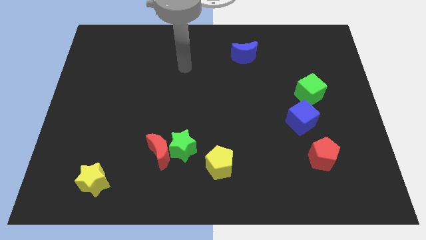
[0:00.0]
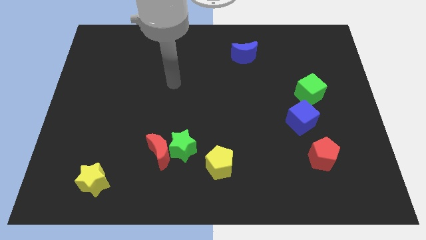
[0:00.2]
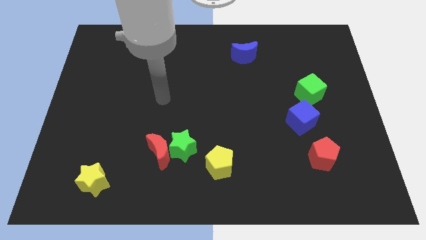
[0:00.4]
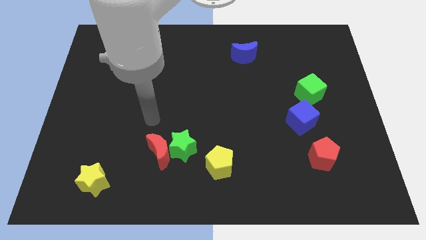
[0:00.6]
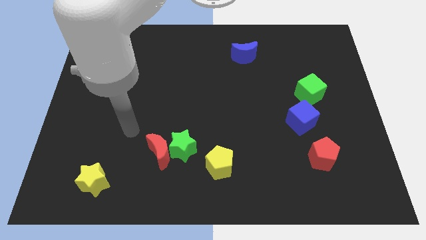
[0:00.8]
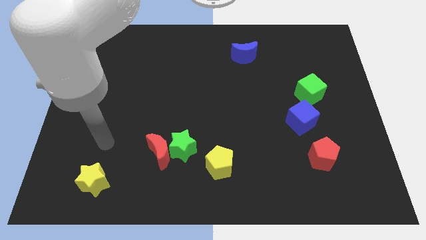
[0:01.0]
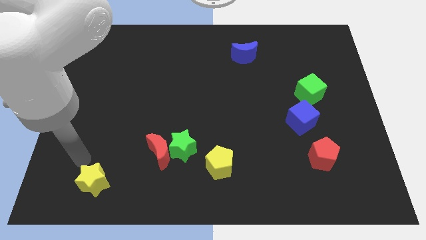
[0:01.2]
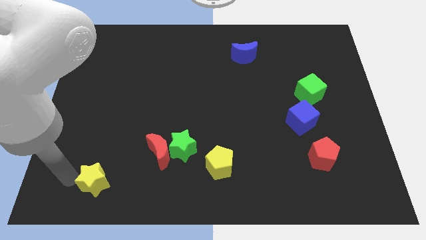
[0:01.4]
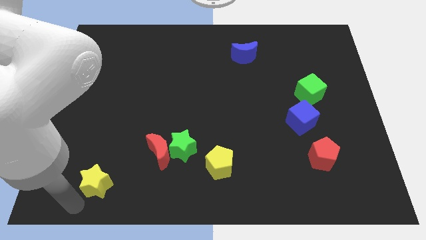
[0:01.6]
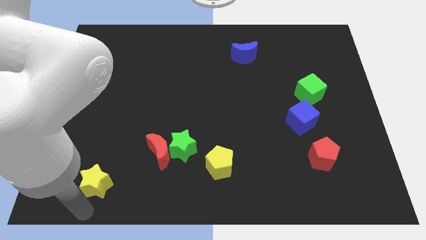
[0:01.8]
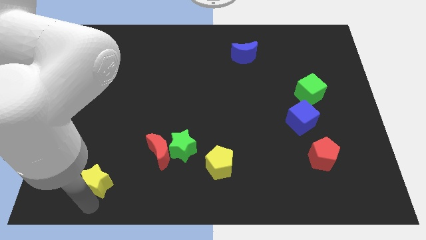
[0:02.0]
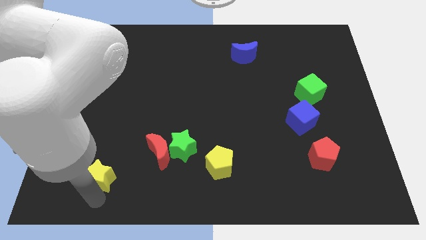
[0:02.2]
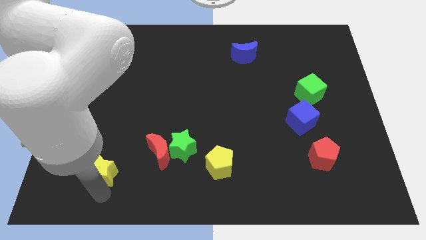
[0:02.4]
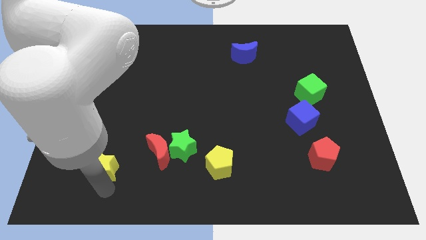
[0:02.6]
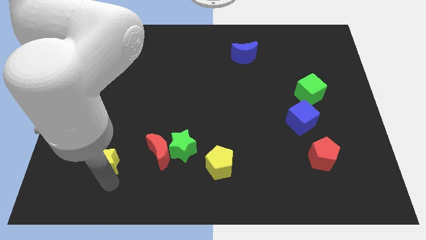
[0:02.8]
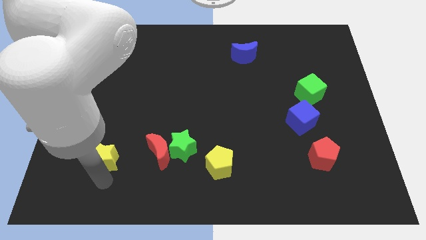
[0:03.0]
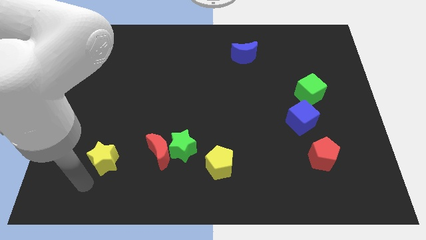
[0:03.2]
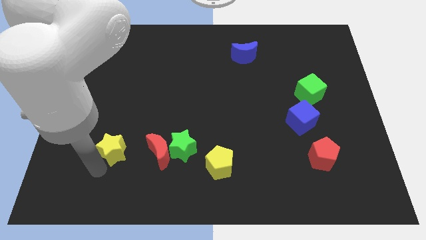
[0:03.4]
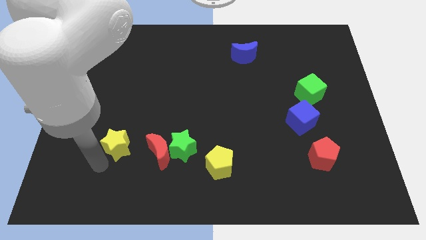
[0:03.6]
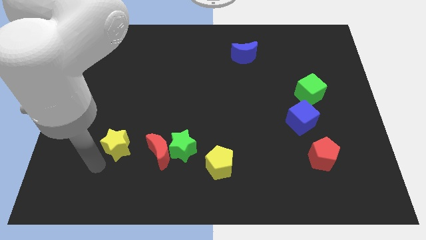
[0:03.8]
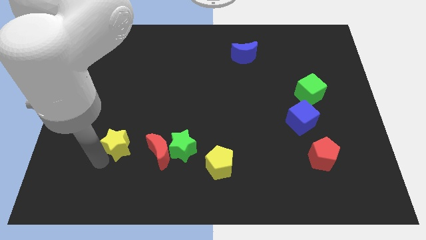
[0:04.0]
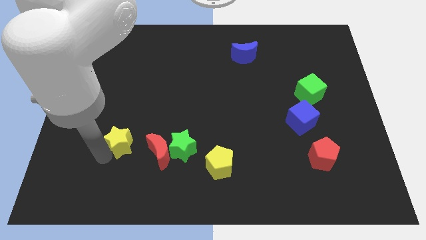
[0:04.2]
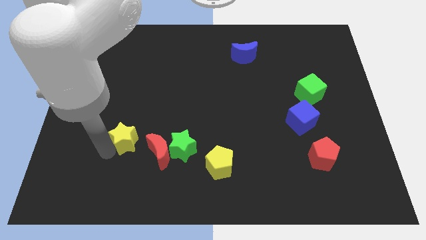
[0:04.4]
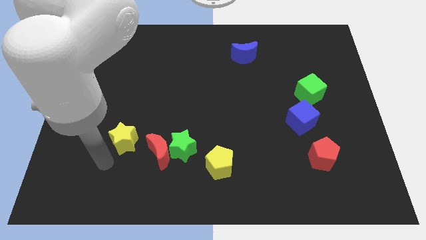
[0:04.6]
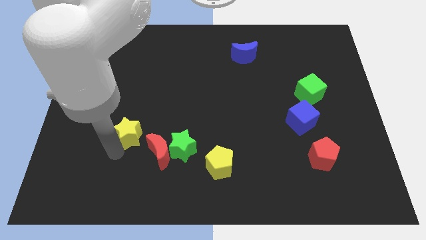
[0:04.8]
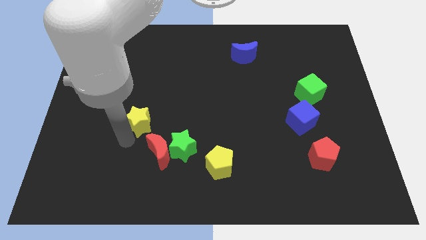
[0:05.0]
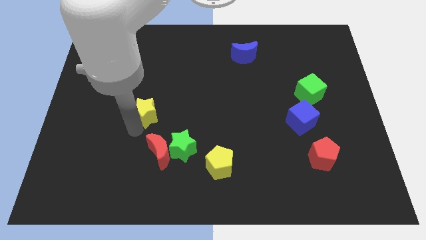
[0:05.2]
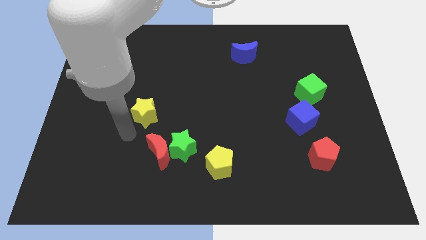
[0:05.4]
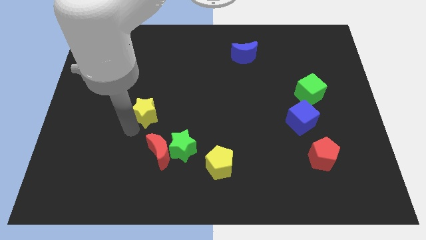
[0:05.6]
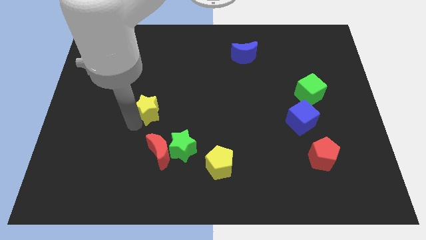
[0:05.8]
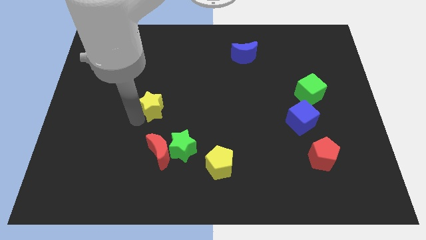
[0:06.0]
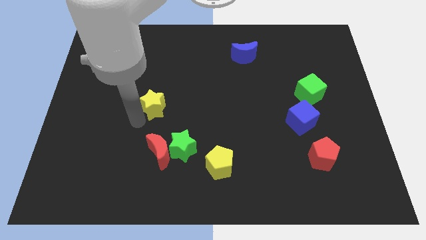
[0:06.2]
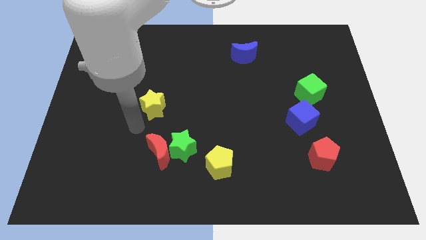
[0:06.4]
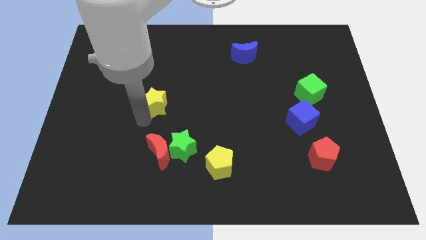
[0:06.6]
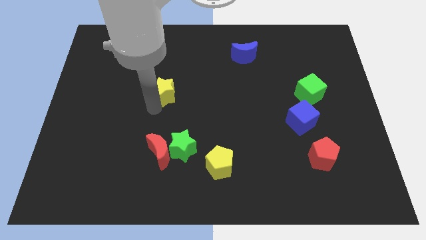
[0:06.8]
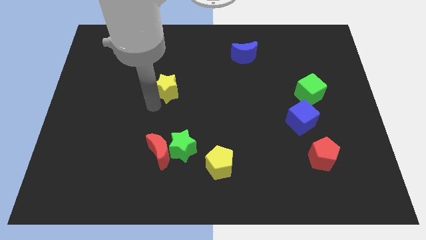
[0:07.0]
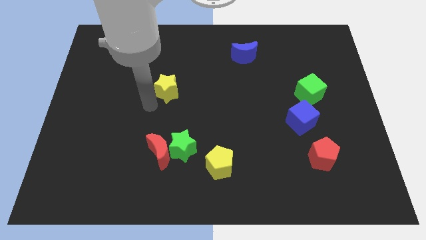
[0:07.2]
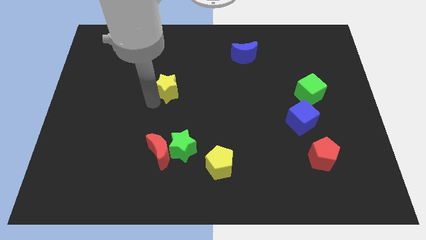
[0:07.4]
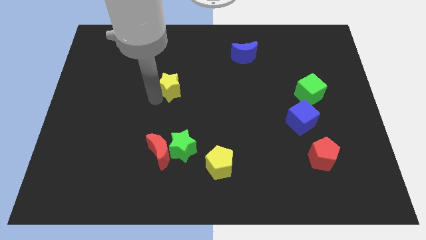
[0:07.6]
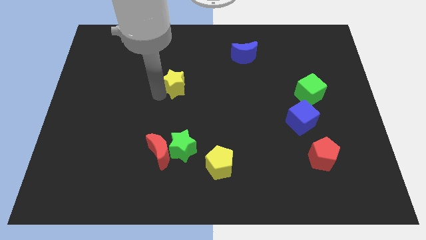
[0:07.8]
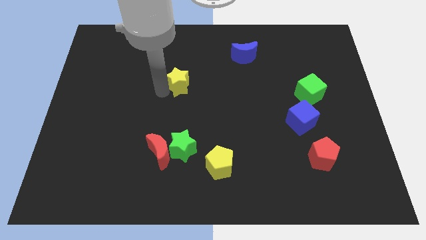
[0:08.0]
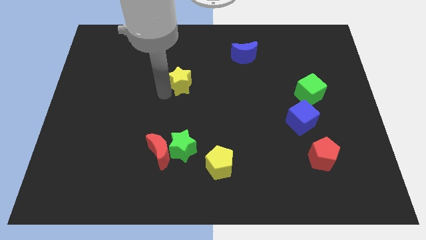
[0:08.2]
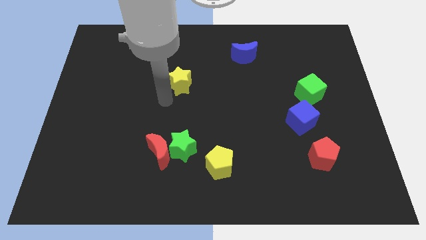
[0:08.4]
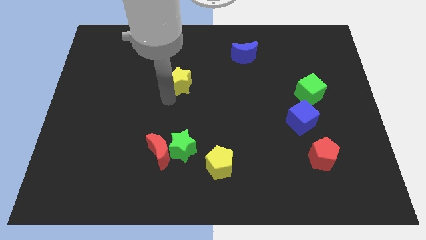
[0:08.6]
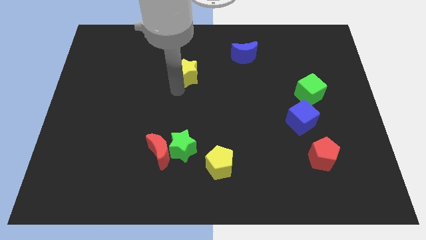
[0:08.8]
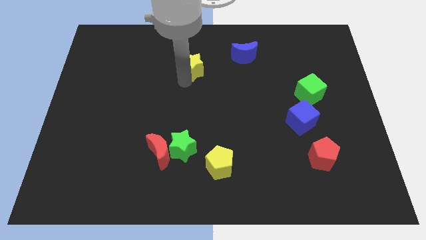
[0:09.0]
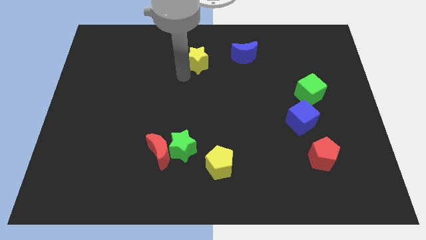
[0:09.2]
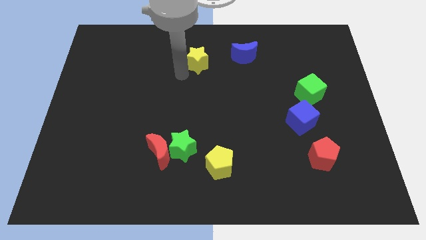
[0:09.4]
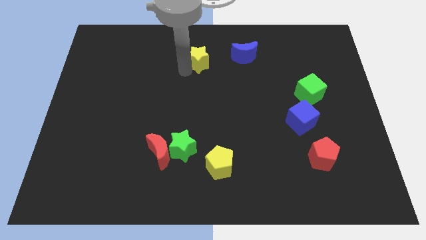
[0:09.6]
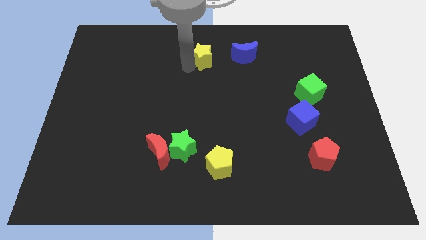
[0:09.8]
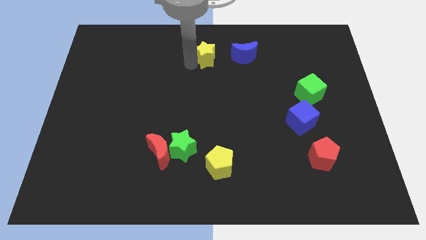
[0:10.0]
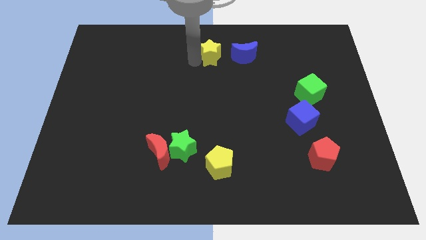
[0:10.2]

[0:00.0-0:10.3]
move the yellow star to the top

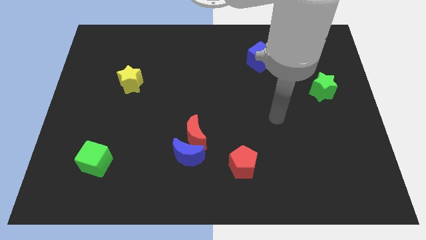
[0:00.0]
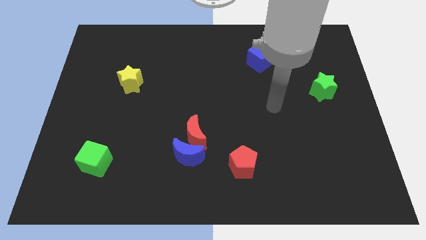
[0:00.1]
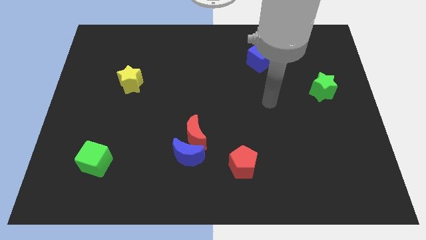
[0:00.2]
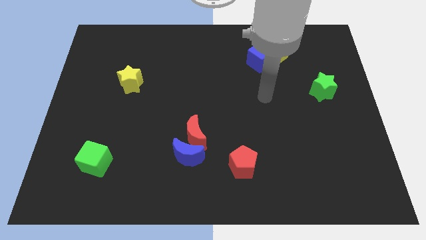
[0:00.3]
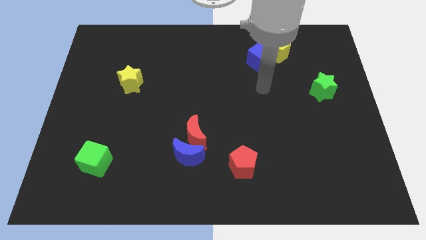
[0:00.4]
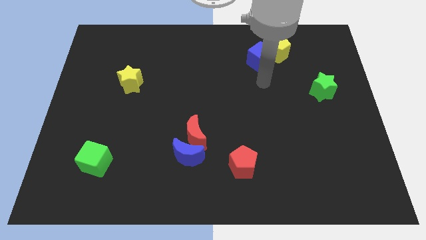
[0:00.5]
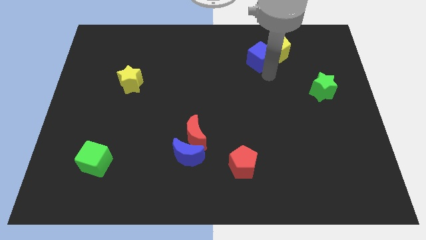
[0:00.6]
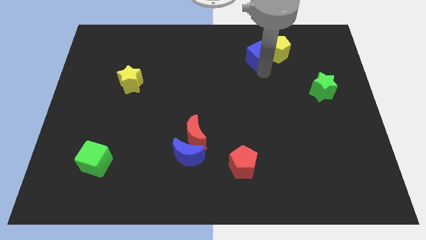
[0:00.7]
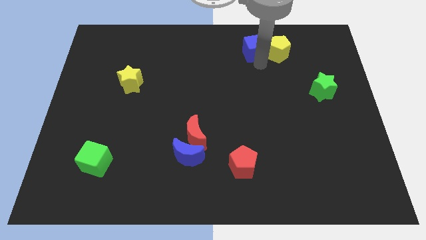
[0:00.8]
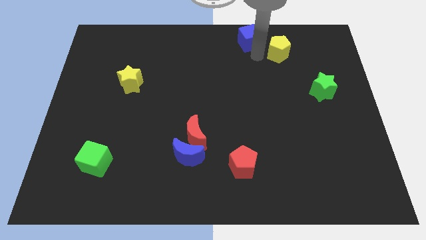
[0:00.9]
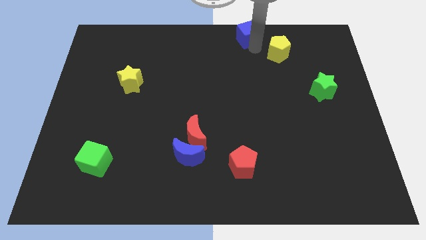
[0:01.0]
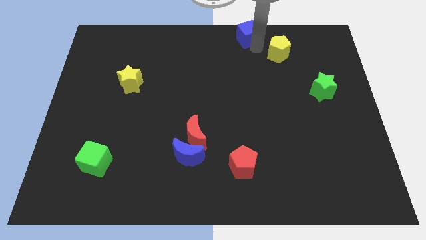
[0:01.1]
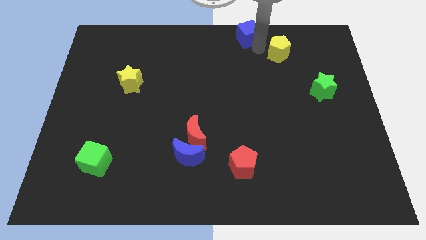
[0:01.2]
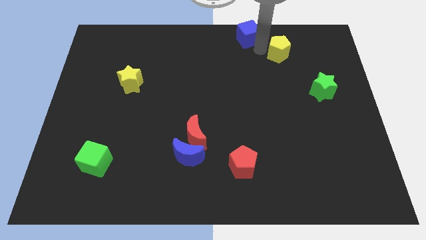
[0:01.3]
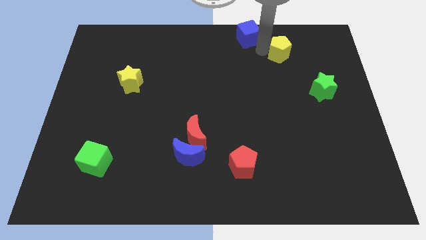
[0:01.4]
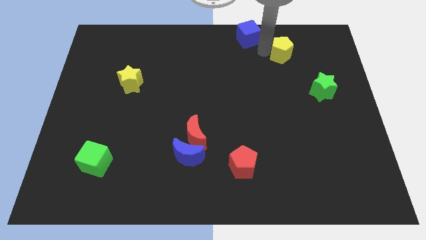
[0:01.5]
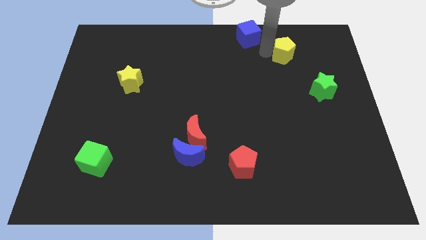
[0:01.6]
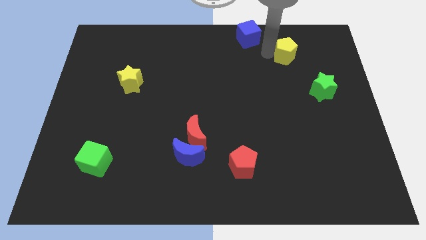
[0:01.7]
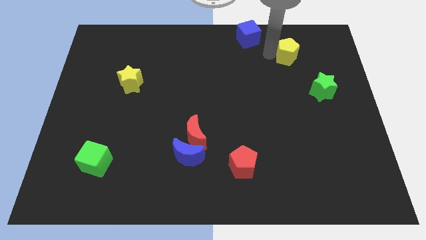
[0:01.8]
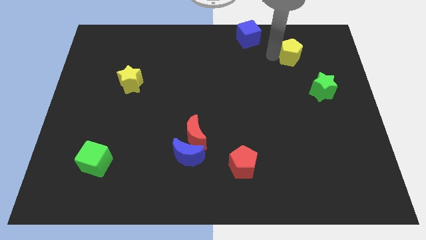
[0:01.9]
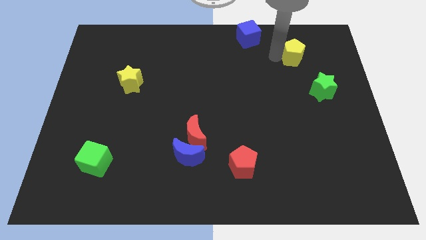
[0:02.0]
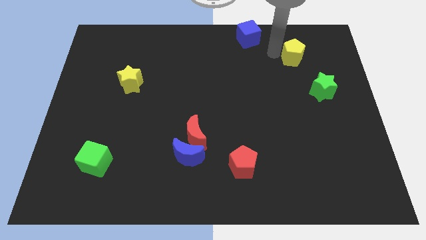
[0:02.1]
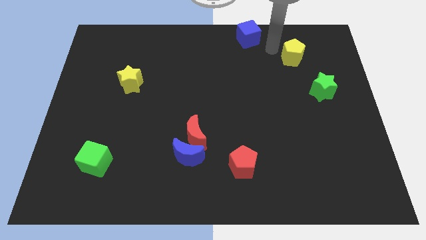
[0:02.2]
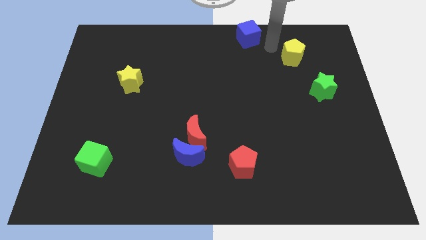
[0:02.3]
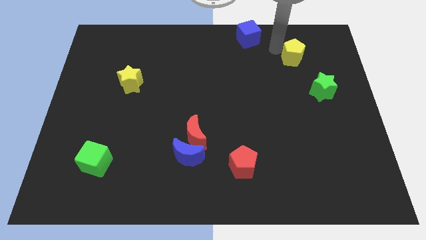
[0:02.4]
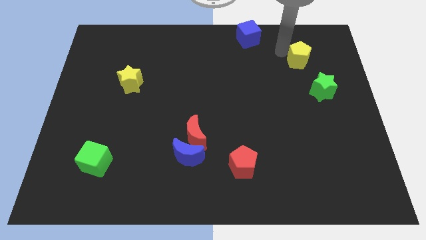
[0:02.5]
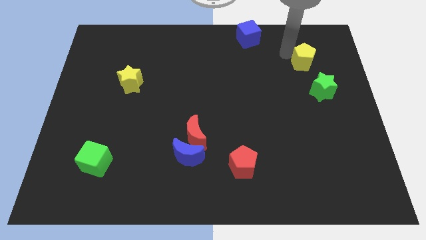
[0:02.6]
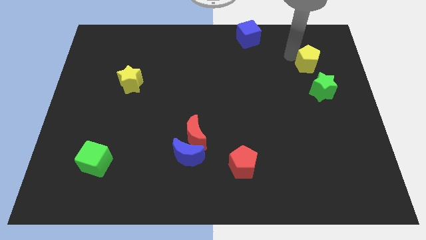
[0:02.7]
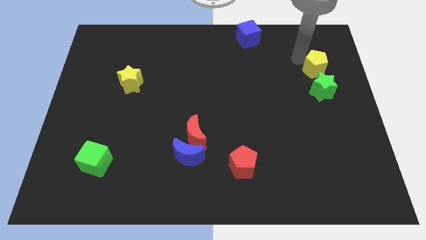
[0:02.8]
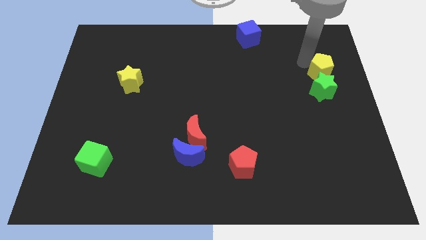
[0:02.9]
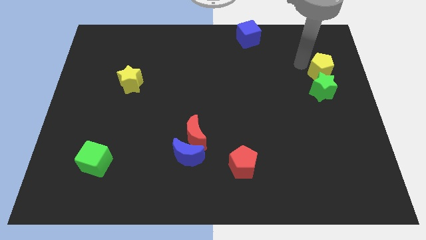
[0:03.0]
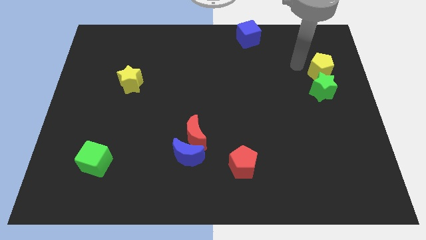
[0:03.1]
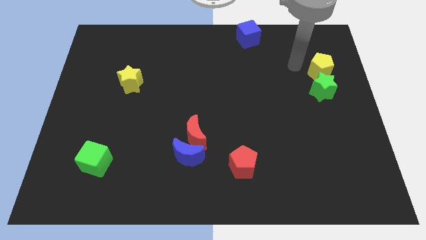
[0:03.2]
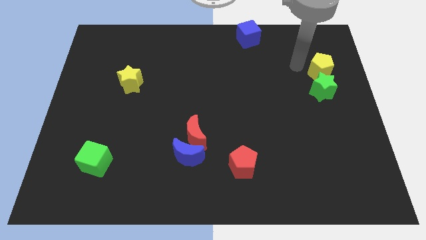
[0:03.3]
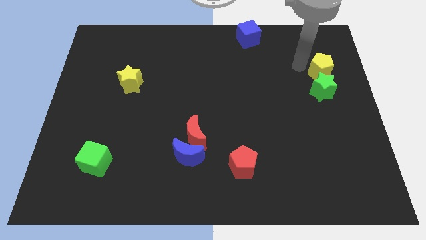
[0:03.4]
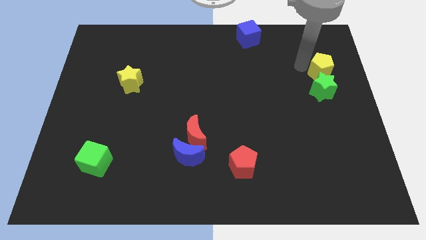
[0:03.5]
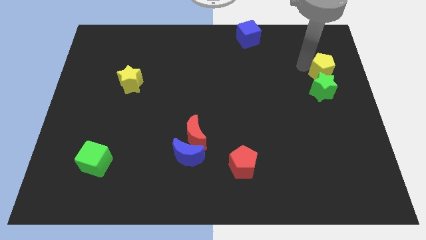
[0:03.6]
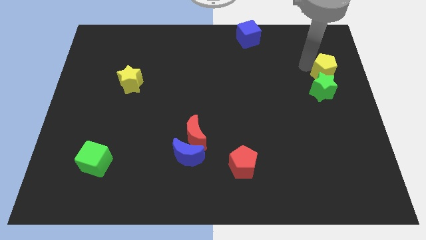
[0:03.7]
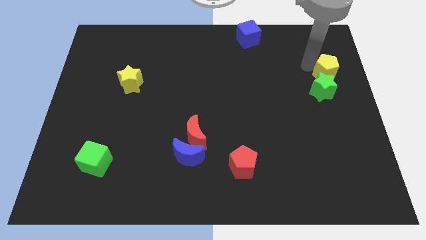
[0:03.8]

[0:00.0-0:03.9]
put the yellow pentagon to the right side
